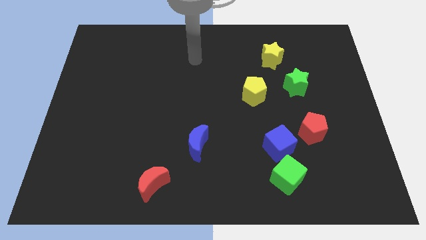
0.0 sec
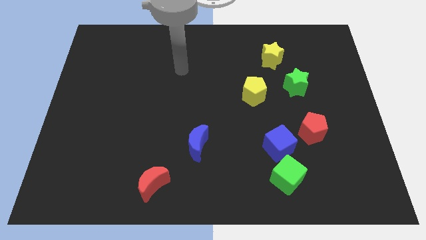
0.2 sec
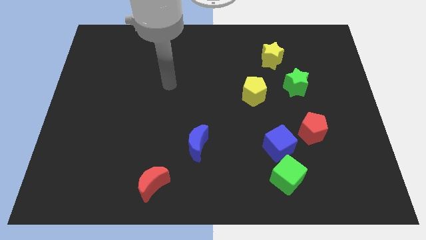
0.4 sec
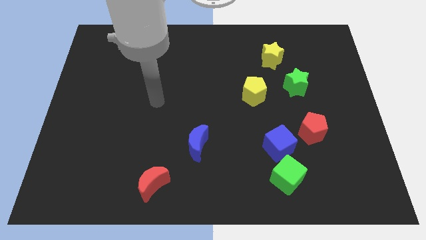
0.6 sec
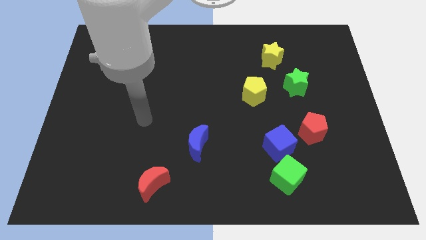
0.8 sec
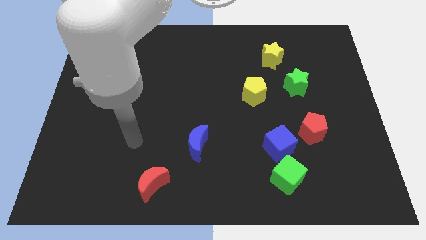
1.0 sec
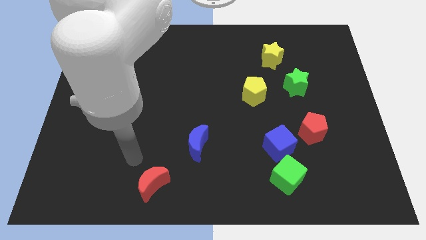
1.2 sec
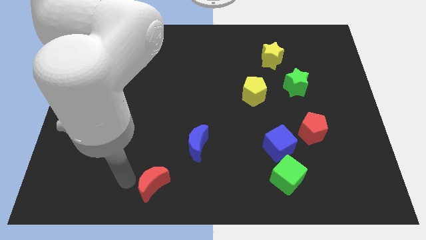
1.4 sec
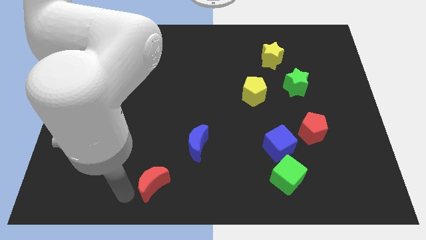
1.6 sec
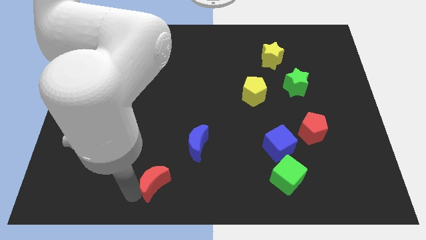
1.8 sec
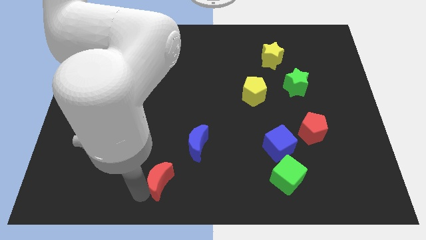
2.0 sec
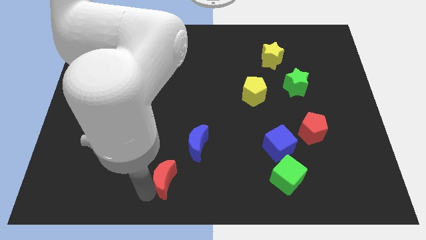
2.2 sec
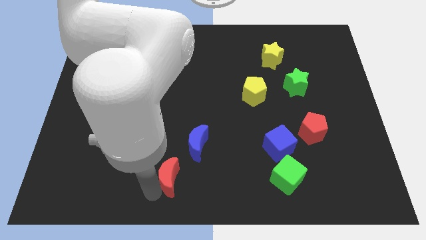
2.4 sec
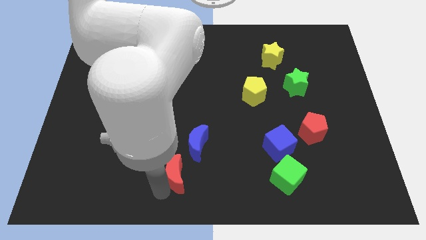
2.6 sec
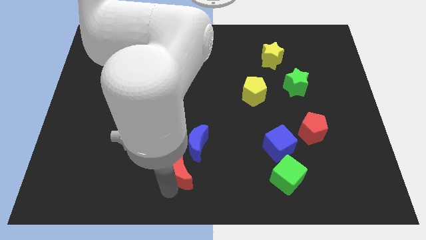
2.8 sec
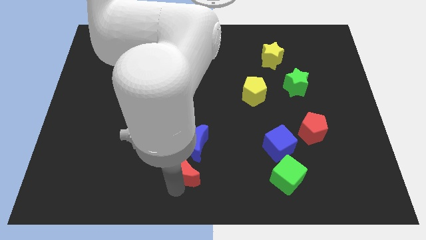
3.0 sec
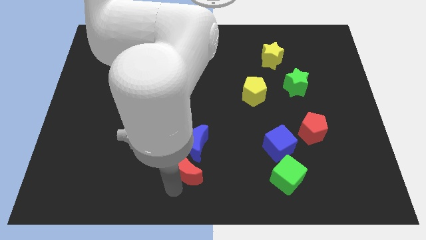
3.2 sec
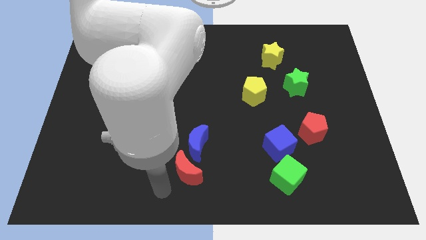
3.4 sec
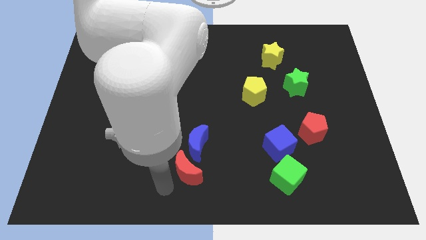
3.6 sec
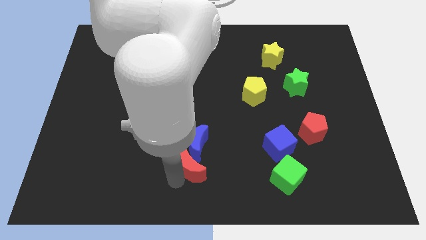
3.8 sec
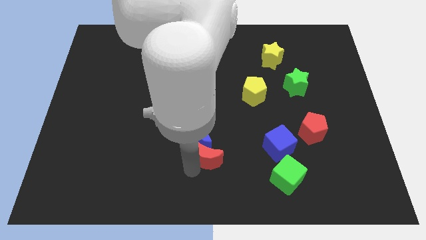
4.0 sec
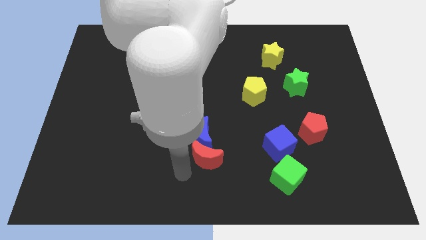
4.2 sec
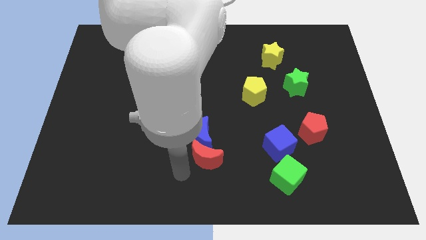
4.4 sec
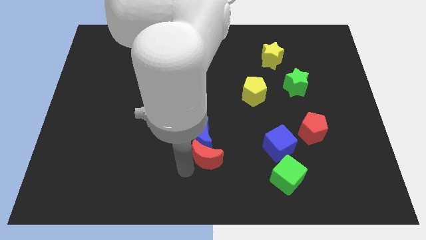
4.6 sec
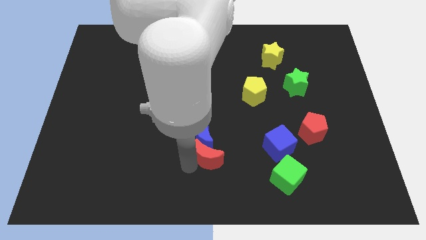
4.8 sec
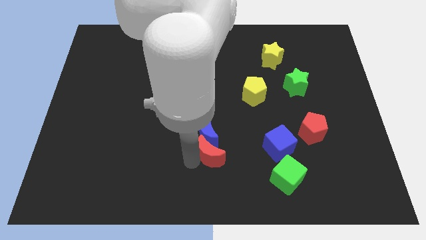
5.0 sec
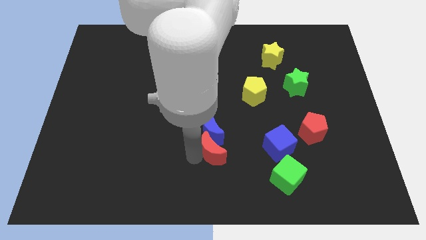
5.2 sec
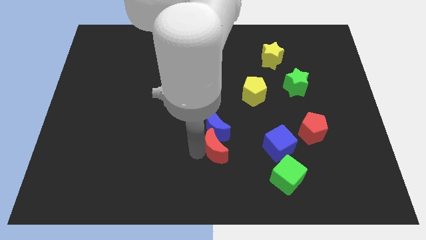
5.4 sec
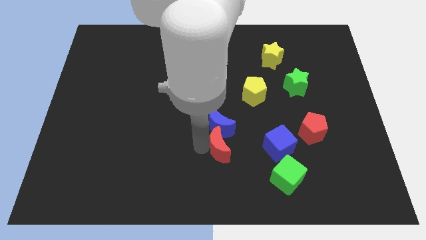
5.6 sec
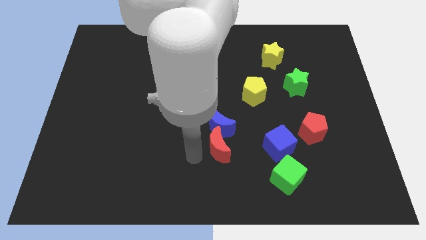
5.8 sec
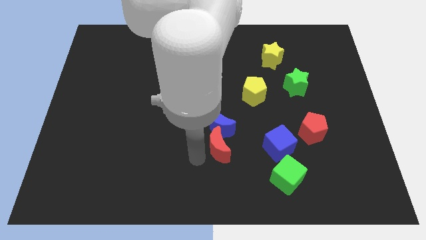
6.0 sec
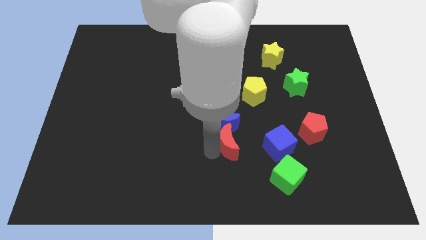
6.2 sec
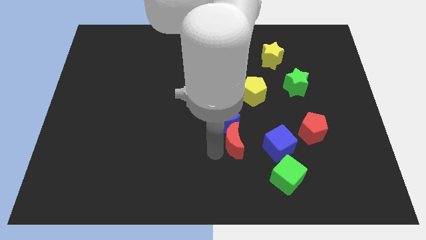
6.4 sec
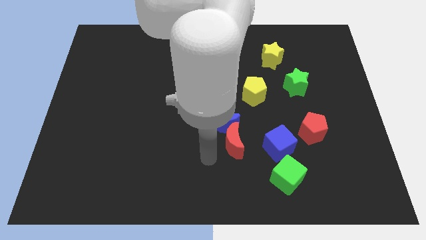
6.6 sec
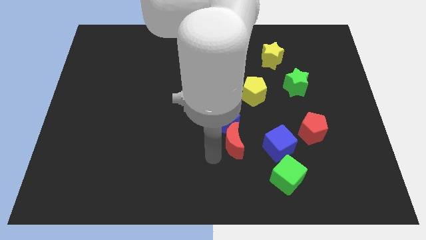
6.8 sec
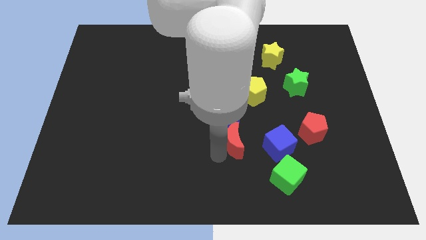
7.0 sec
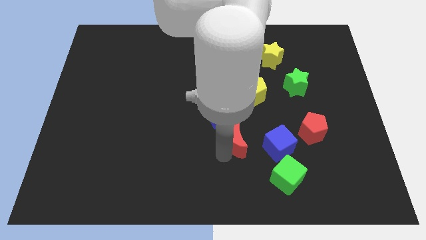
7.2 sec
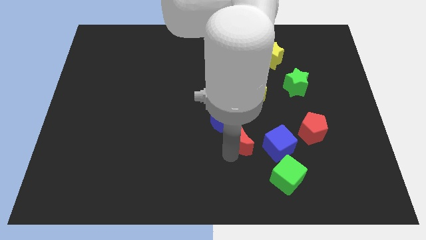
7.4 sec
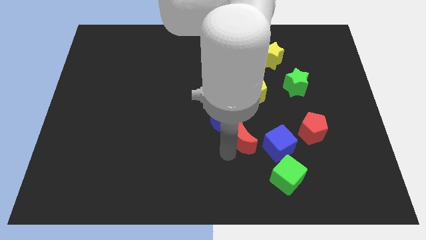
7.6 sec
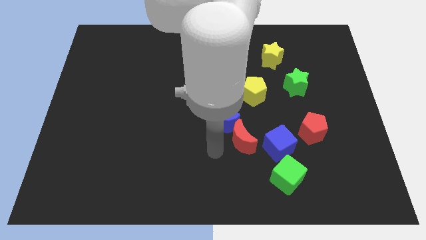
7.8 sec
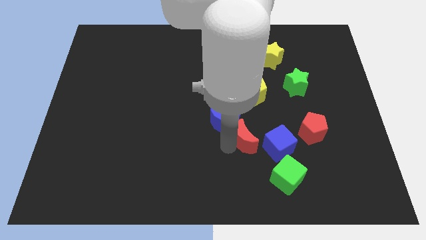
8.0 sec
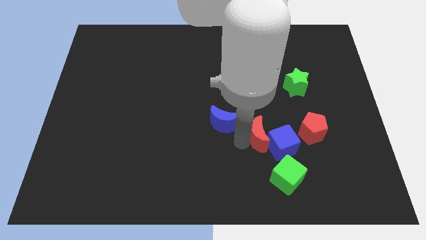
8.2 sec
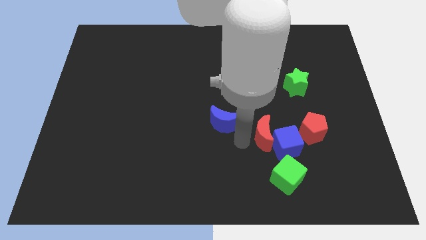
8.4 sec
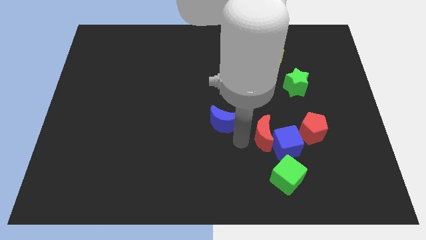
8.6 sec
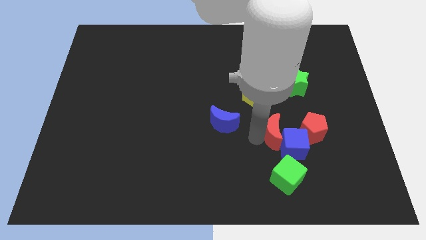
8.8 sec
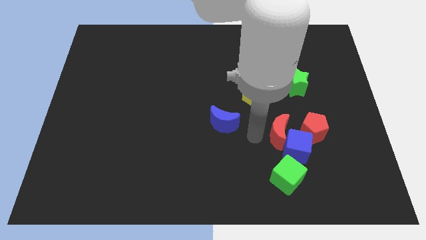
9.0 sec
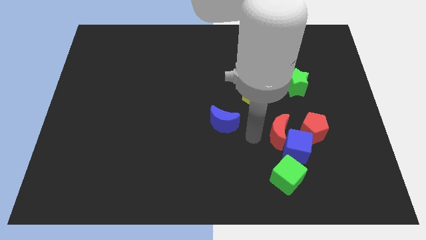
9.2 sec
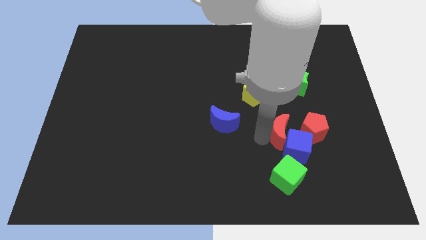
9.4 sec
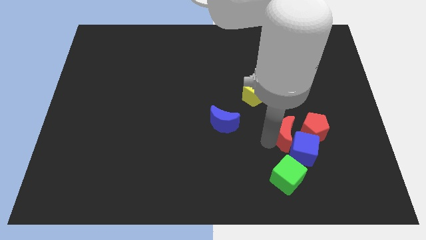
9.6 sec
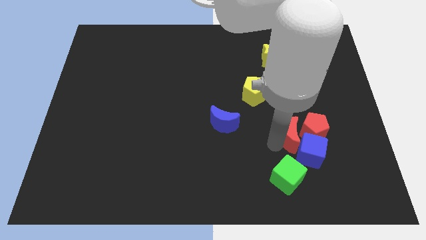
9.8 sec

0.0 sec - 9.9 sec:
push the red moon towards the red pentagon

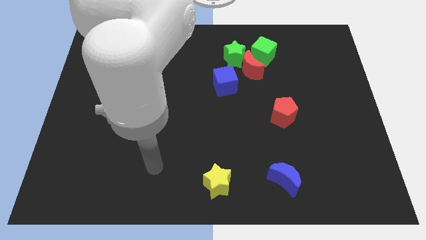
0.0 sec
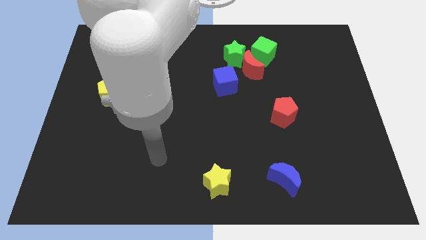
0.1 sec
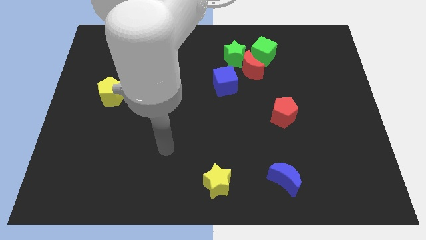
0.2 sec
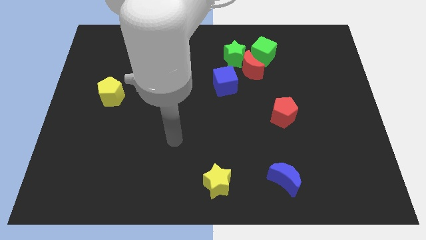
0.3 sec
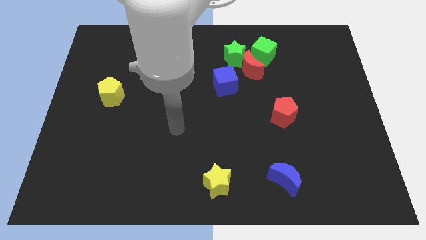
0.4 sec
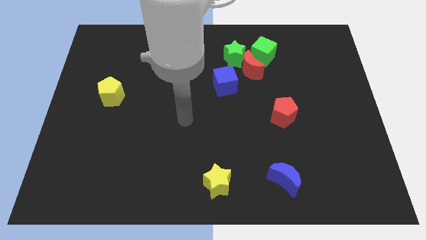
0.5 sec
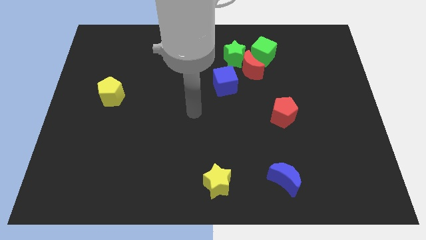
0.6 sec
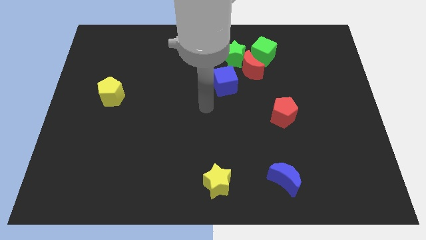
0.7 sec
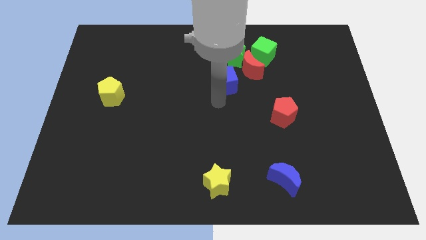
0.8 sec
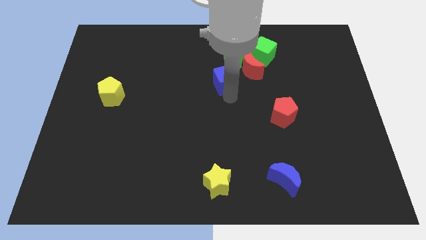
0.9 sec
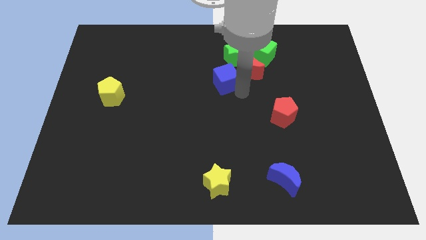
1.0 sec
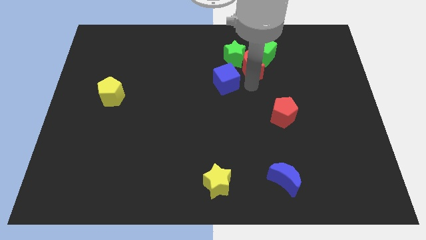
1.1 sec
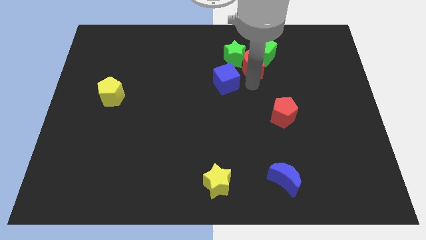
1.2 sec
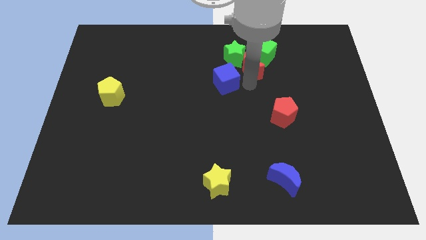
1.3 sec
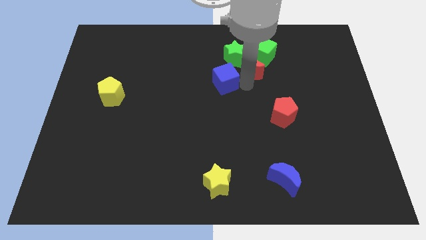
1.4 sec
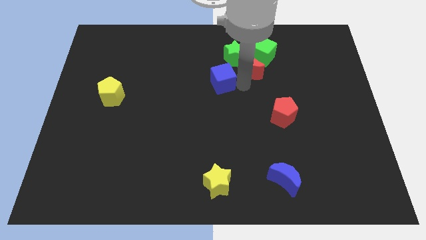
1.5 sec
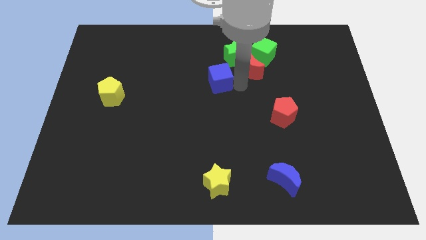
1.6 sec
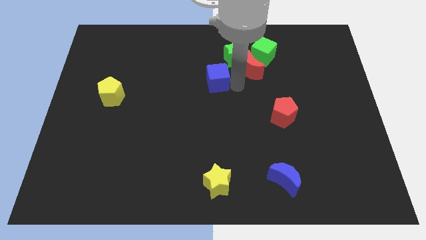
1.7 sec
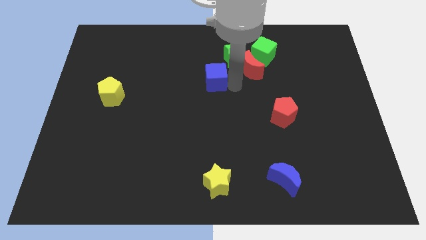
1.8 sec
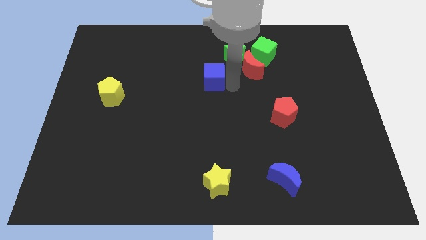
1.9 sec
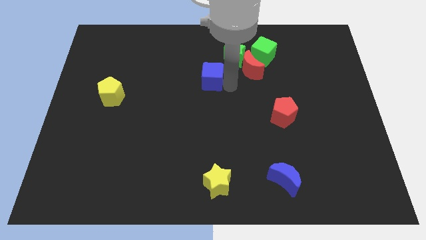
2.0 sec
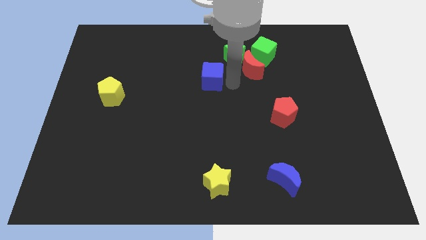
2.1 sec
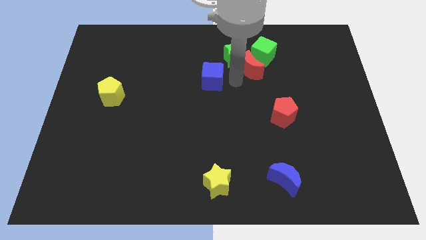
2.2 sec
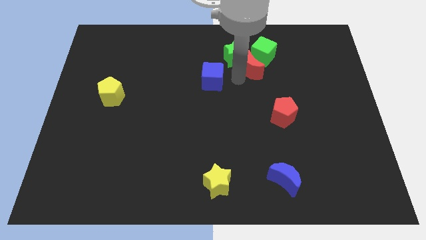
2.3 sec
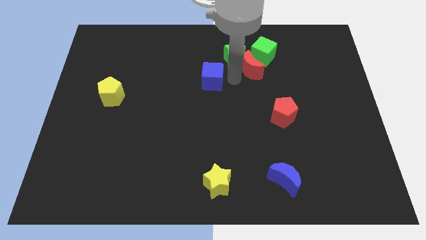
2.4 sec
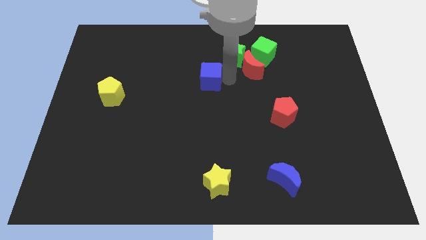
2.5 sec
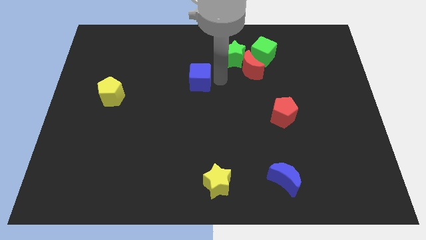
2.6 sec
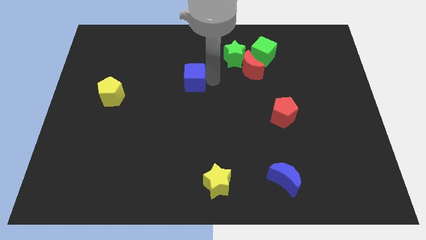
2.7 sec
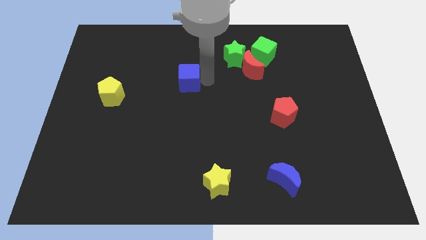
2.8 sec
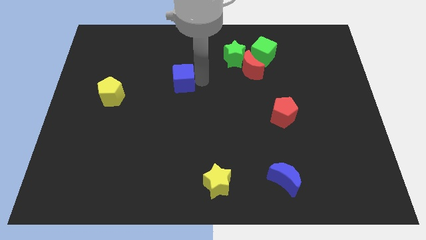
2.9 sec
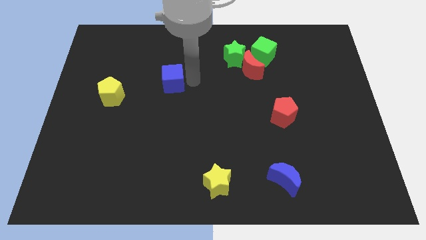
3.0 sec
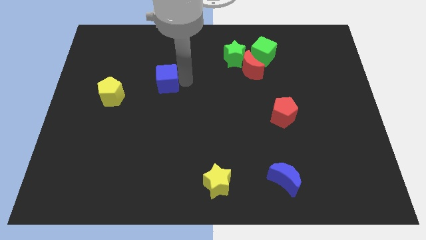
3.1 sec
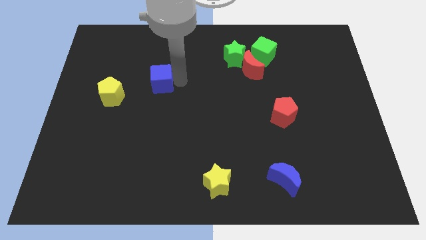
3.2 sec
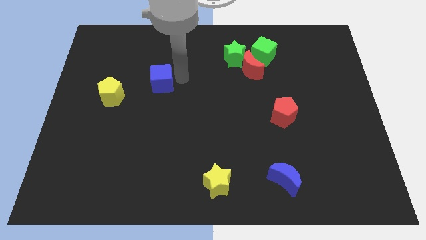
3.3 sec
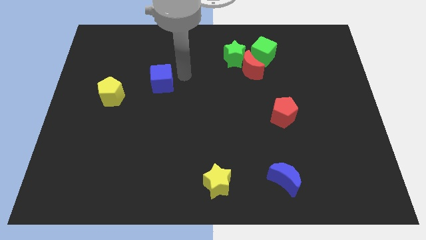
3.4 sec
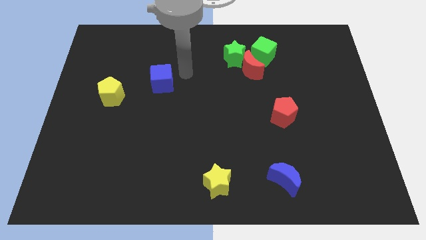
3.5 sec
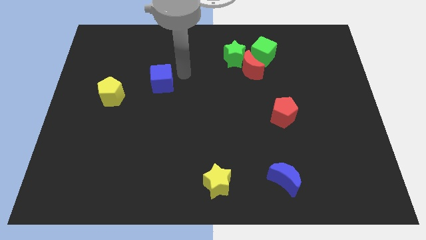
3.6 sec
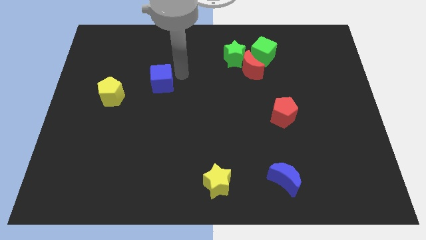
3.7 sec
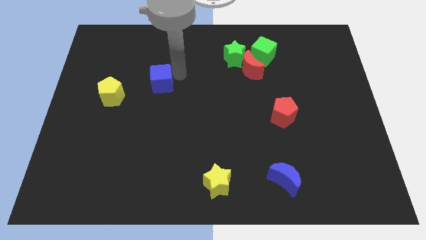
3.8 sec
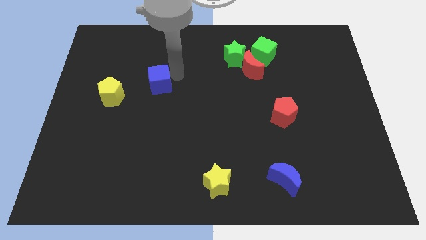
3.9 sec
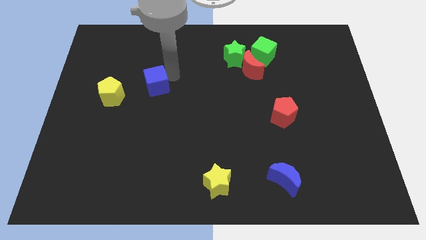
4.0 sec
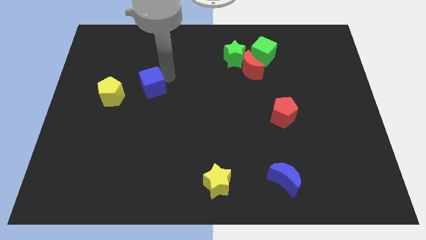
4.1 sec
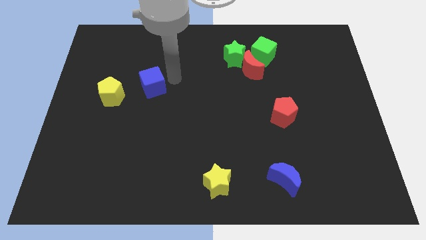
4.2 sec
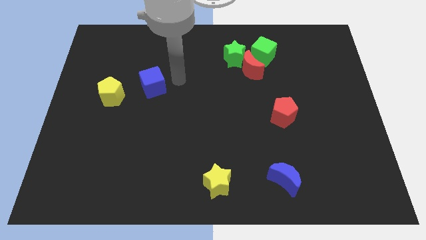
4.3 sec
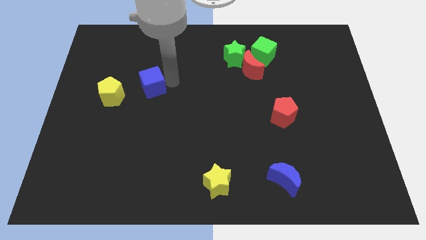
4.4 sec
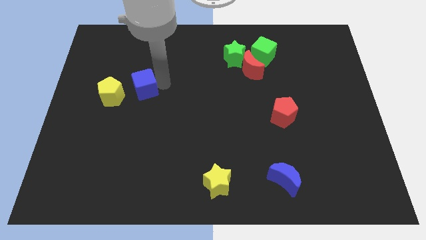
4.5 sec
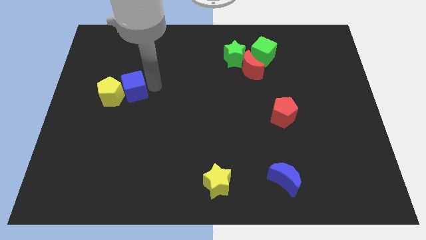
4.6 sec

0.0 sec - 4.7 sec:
slide the blue cube to the yellow pentagon
